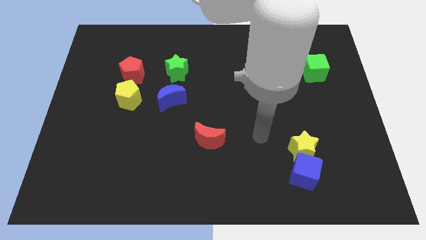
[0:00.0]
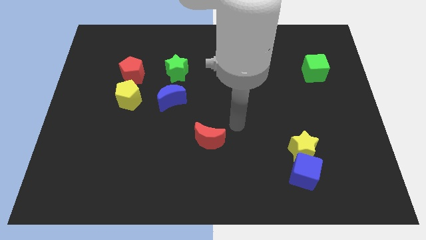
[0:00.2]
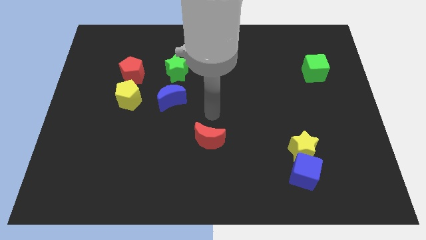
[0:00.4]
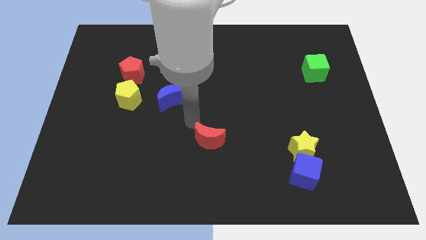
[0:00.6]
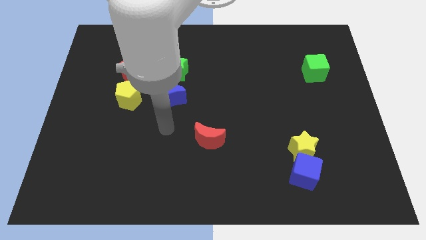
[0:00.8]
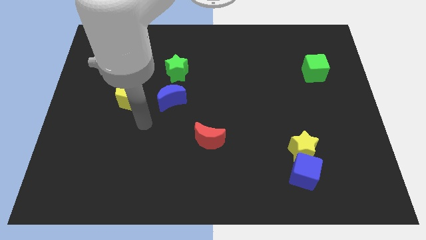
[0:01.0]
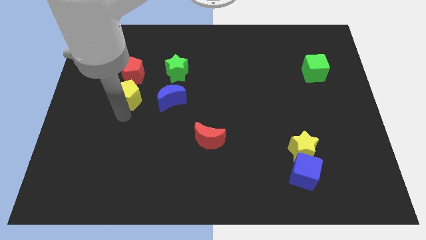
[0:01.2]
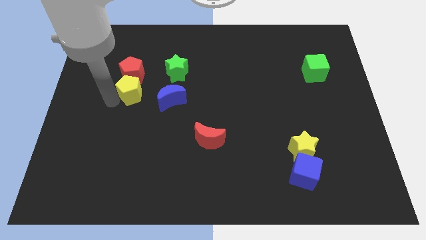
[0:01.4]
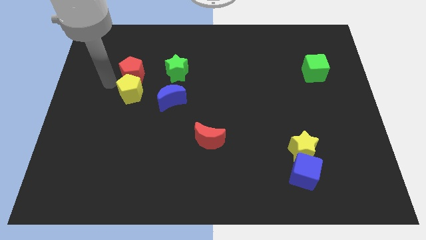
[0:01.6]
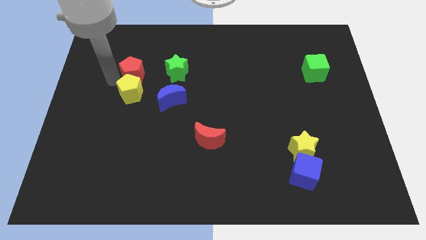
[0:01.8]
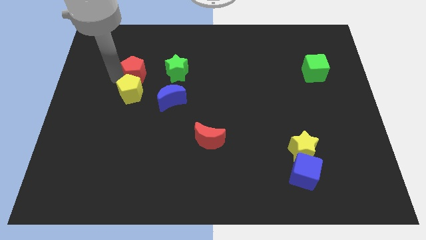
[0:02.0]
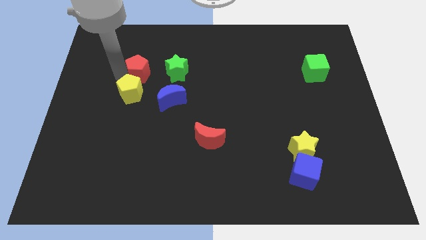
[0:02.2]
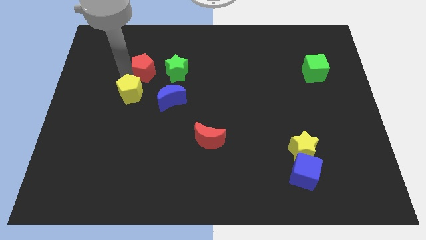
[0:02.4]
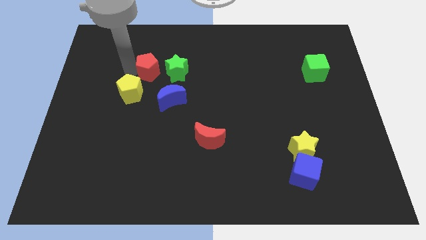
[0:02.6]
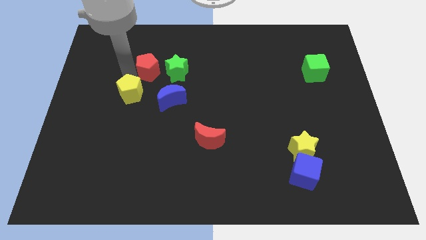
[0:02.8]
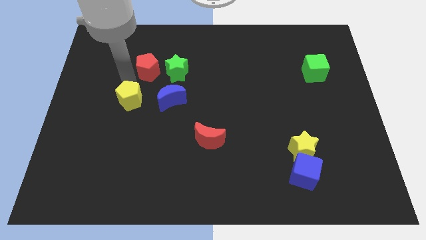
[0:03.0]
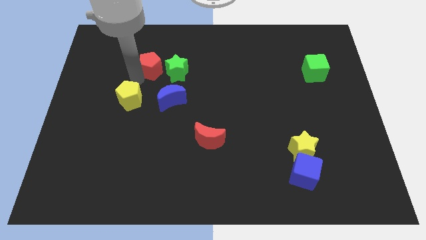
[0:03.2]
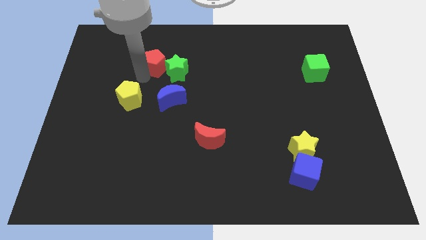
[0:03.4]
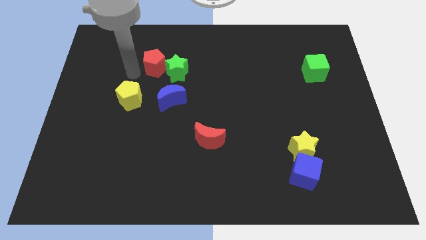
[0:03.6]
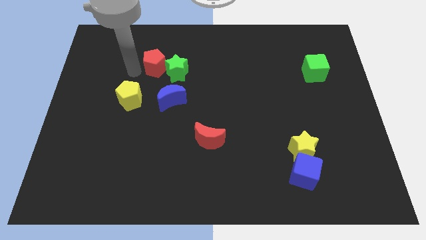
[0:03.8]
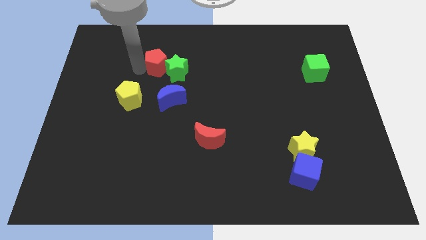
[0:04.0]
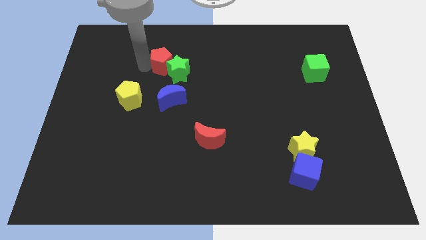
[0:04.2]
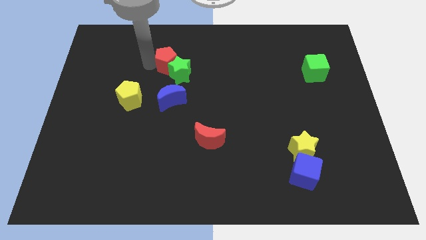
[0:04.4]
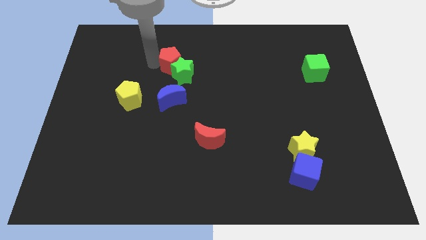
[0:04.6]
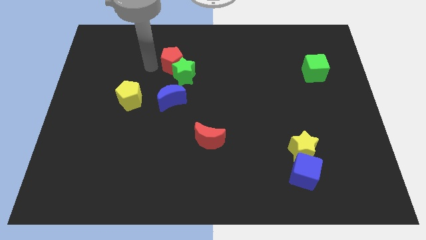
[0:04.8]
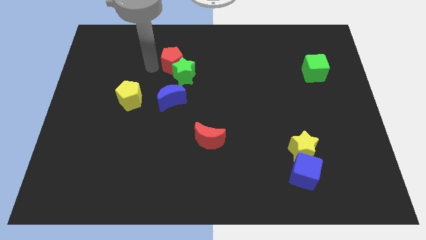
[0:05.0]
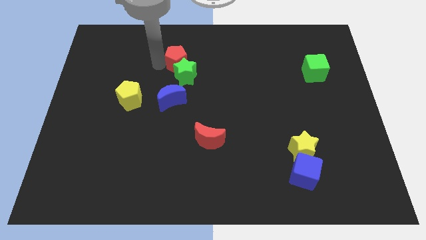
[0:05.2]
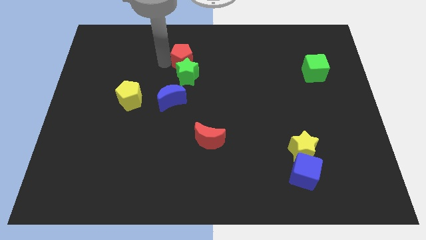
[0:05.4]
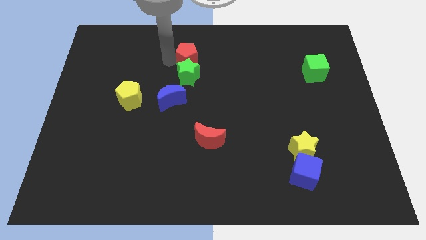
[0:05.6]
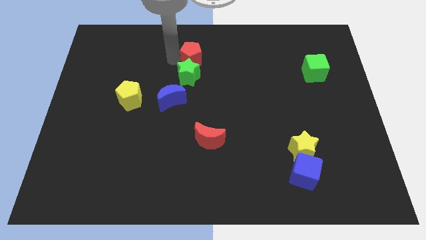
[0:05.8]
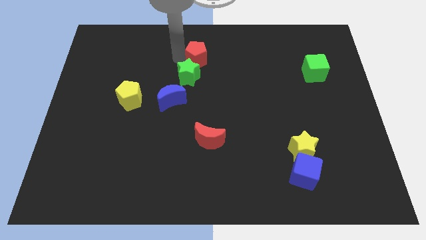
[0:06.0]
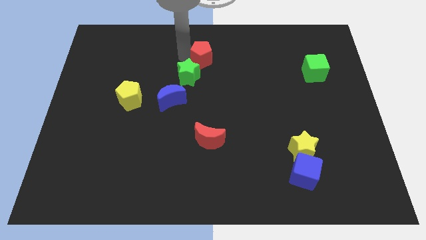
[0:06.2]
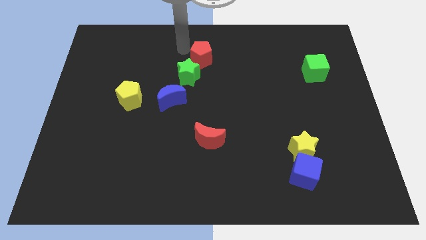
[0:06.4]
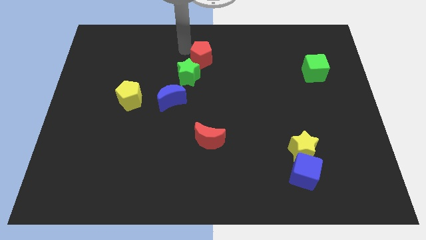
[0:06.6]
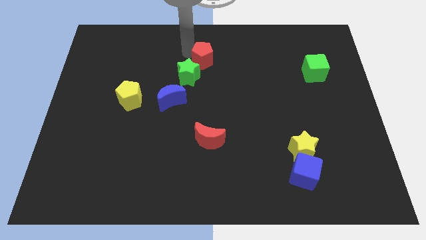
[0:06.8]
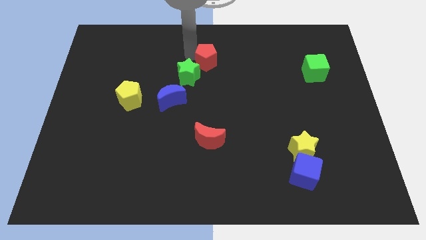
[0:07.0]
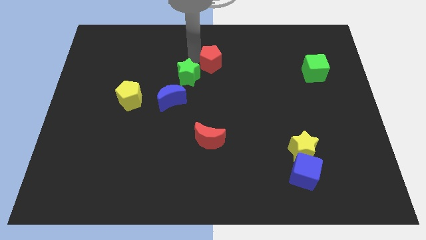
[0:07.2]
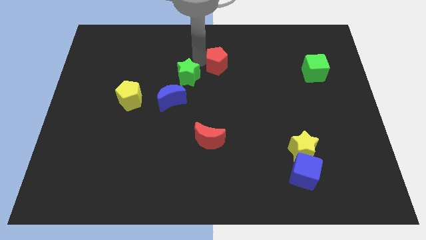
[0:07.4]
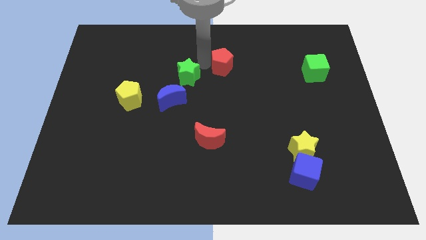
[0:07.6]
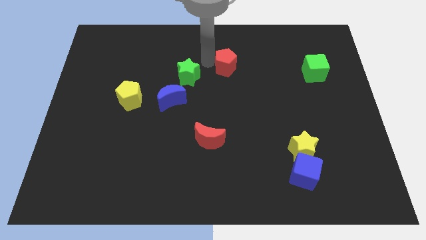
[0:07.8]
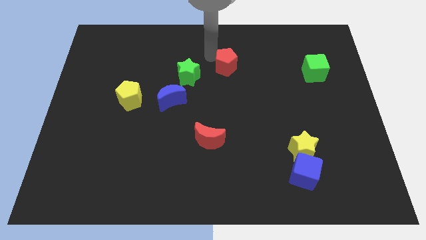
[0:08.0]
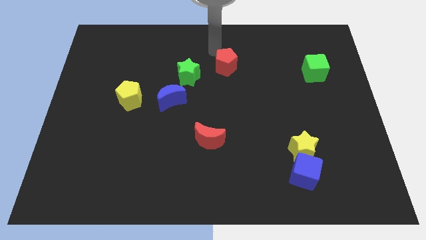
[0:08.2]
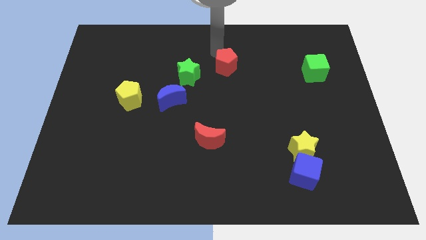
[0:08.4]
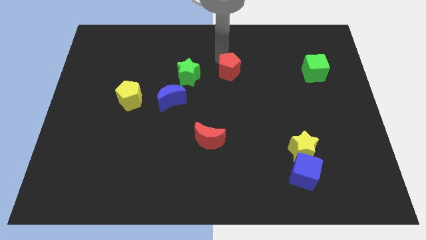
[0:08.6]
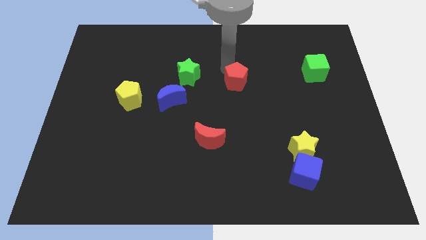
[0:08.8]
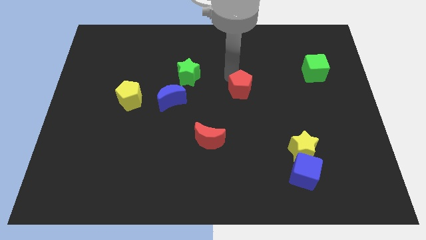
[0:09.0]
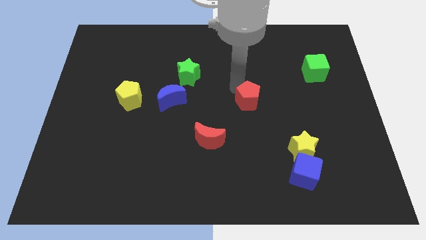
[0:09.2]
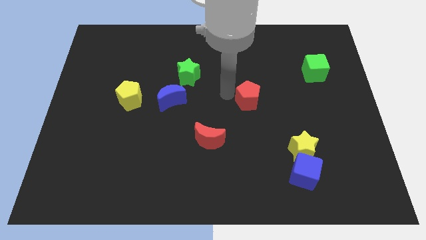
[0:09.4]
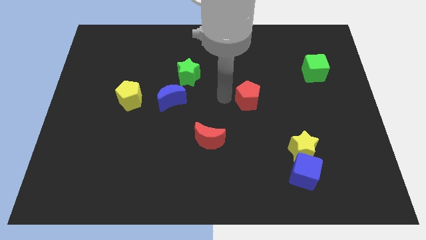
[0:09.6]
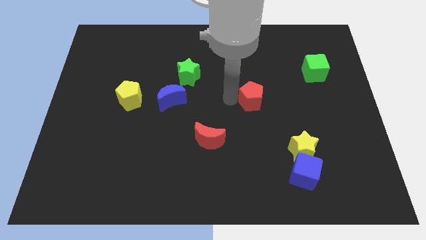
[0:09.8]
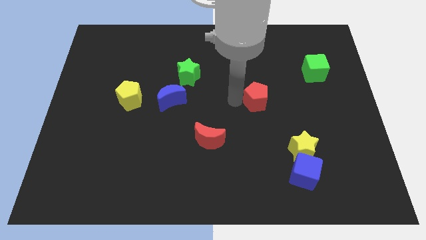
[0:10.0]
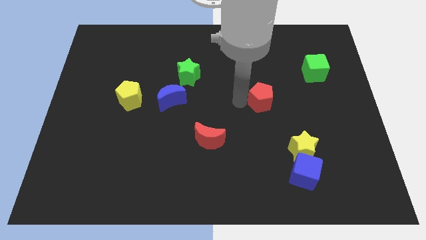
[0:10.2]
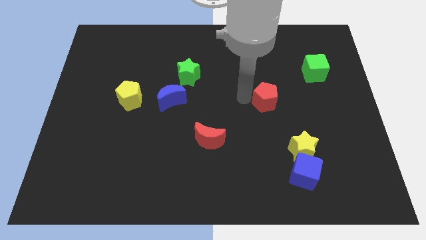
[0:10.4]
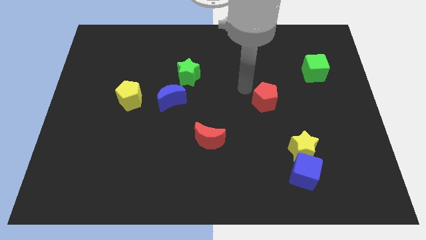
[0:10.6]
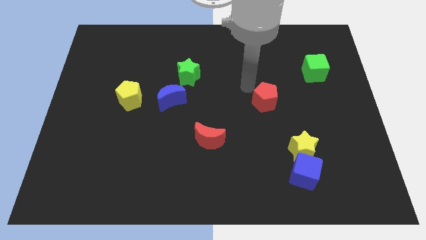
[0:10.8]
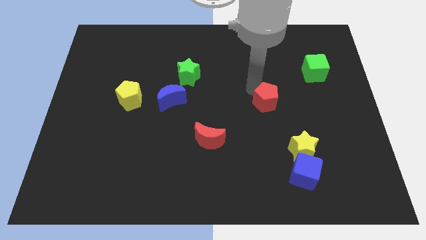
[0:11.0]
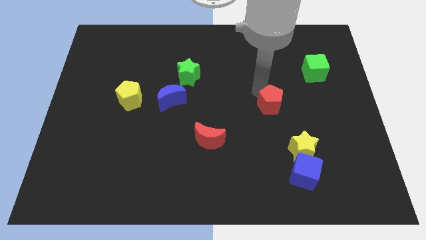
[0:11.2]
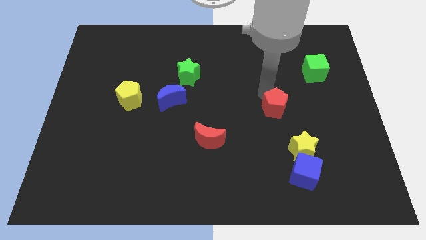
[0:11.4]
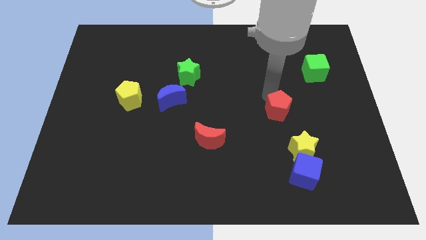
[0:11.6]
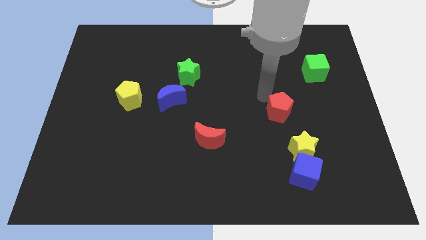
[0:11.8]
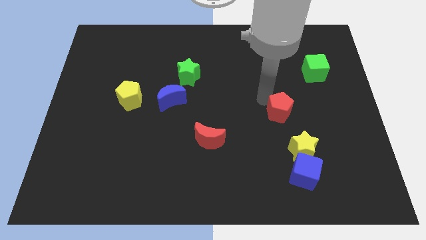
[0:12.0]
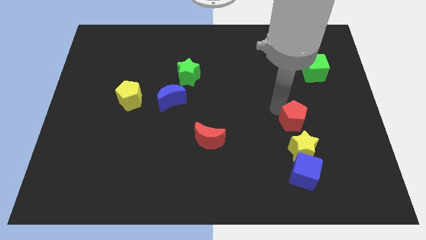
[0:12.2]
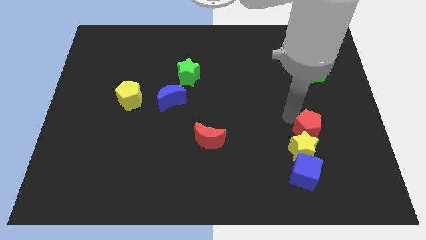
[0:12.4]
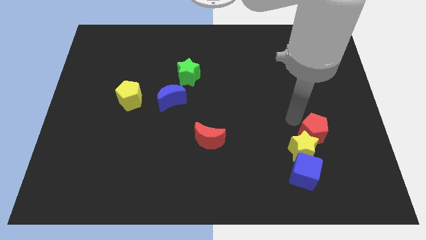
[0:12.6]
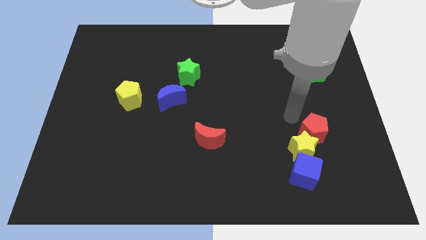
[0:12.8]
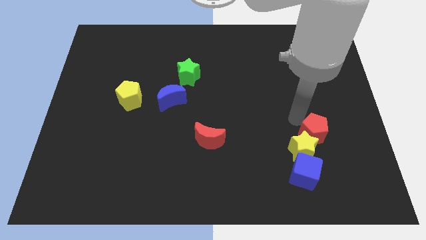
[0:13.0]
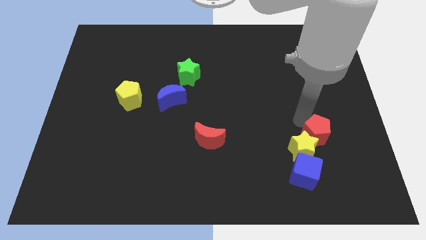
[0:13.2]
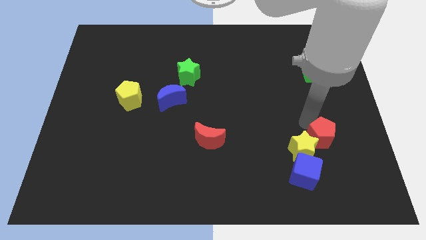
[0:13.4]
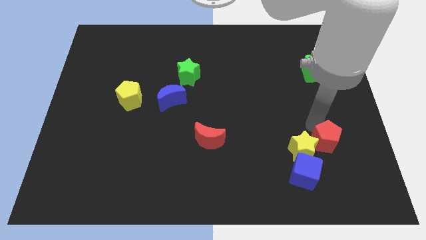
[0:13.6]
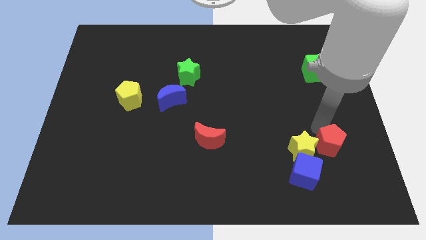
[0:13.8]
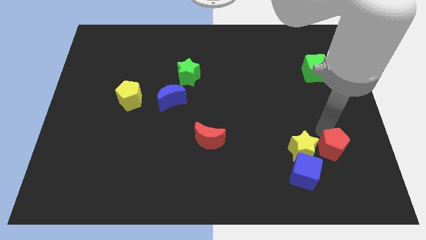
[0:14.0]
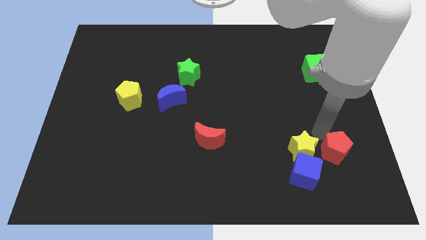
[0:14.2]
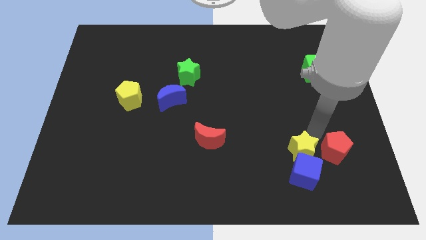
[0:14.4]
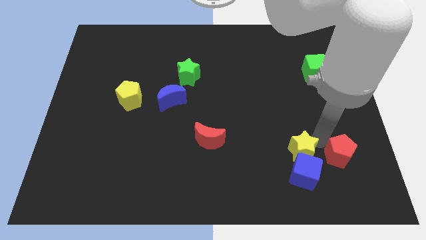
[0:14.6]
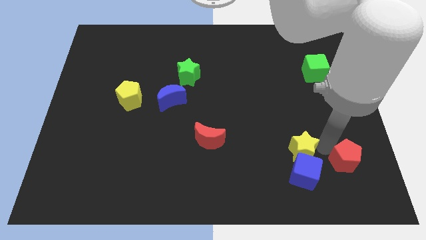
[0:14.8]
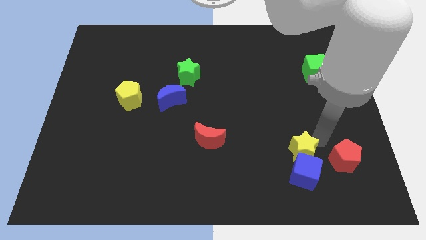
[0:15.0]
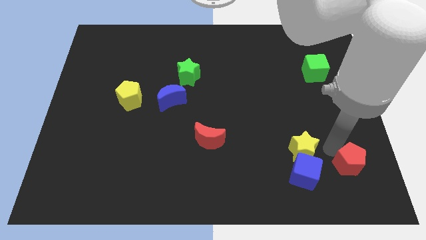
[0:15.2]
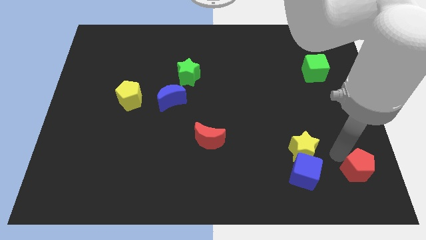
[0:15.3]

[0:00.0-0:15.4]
slide the red pentagon to the bottom right corner
